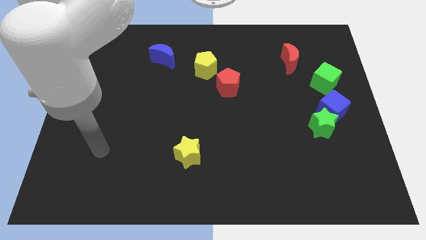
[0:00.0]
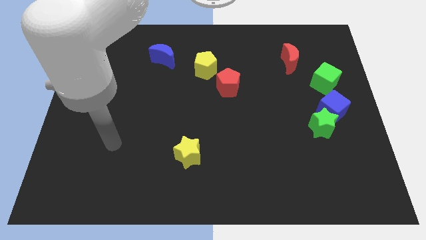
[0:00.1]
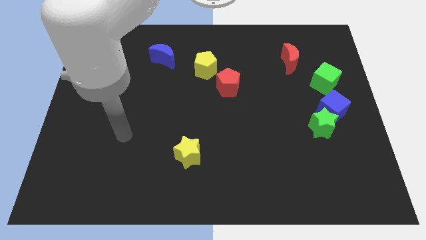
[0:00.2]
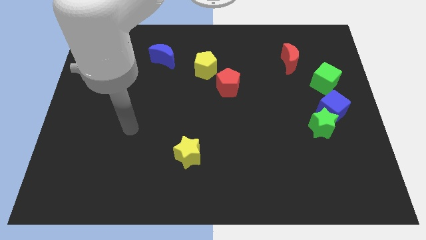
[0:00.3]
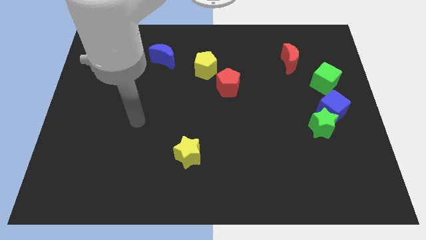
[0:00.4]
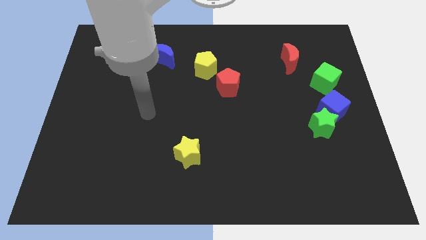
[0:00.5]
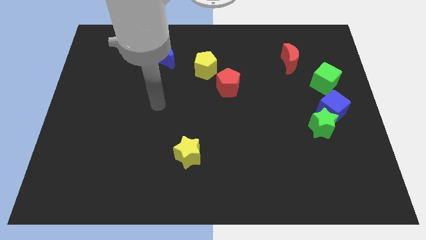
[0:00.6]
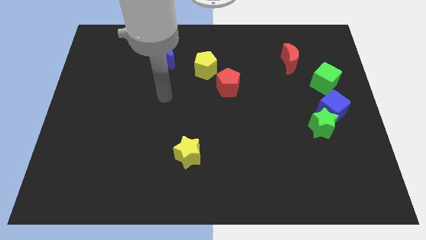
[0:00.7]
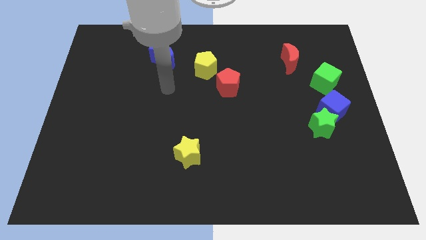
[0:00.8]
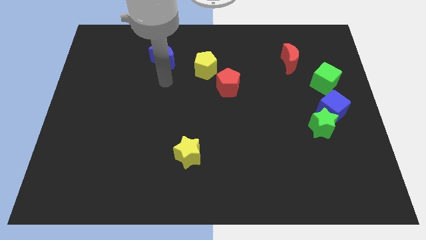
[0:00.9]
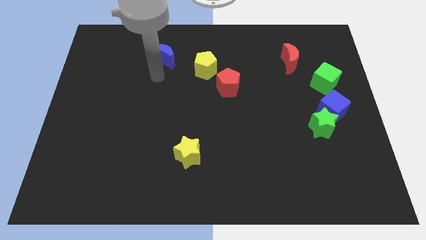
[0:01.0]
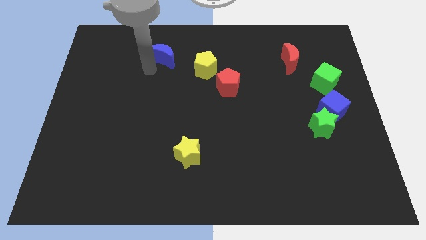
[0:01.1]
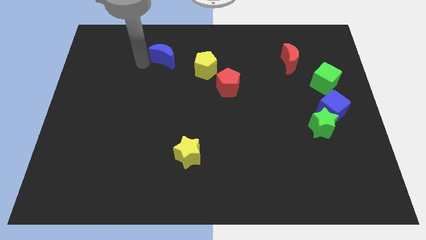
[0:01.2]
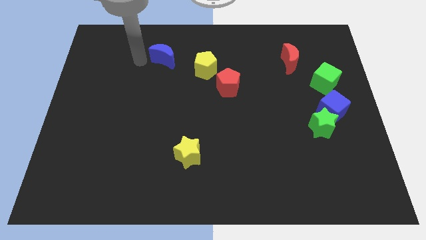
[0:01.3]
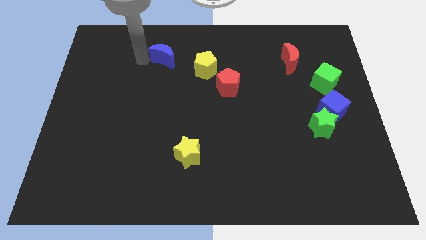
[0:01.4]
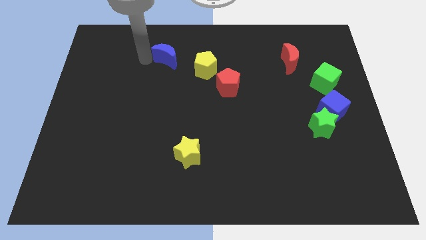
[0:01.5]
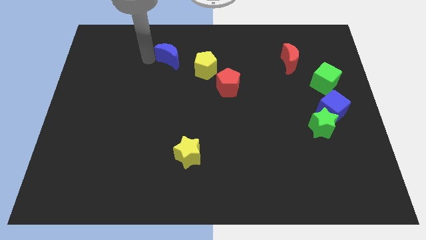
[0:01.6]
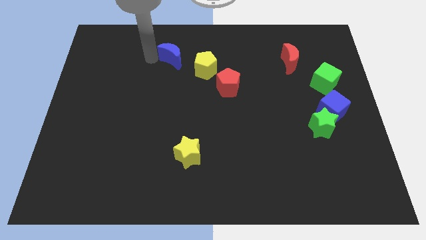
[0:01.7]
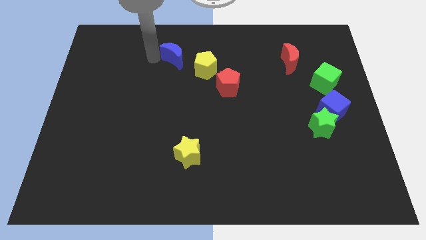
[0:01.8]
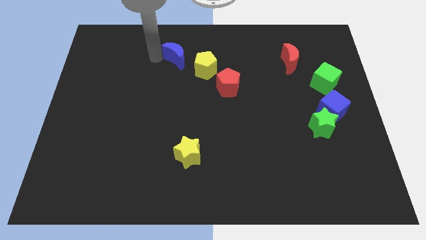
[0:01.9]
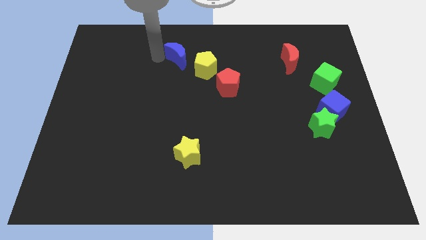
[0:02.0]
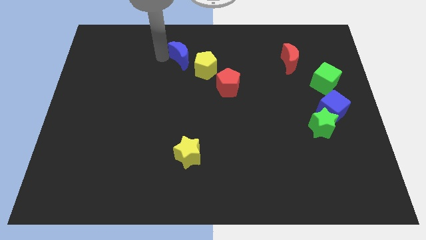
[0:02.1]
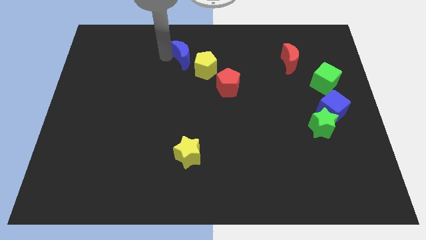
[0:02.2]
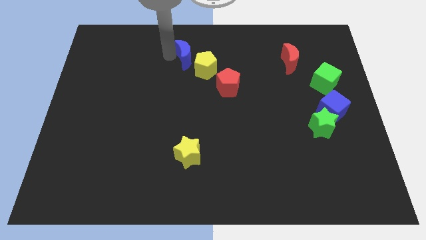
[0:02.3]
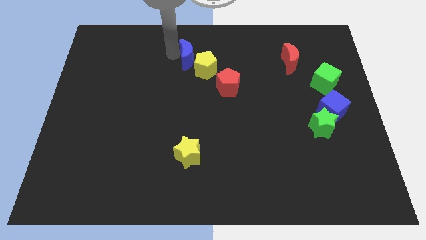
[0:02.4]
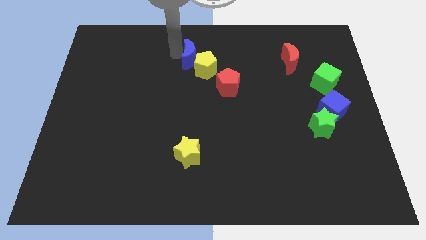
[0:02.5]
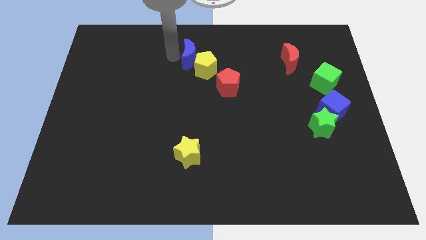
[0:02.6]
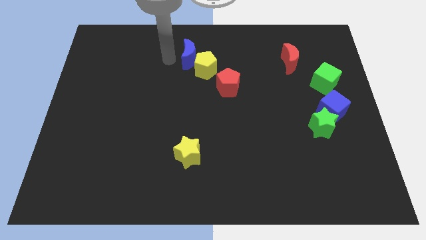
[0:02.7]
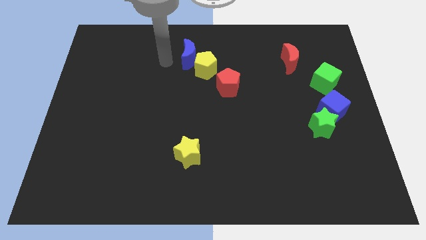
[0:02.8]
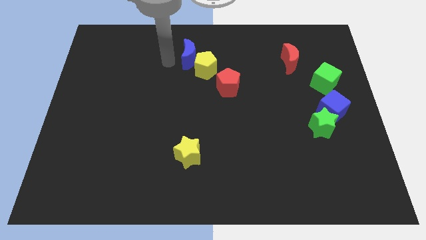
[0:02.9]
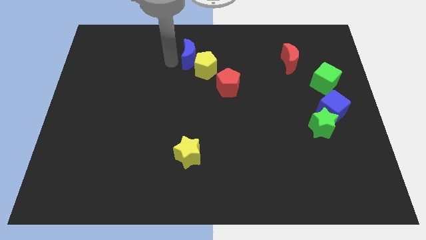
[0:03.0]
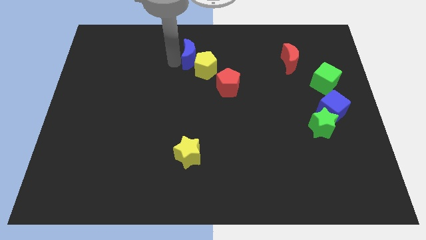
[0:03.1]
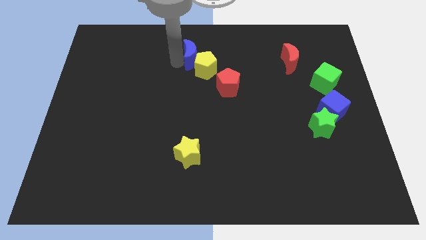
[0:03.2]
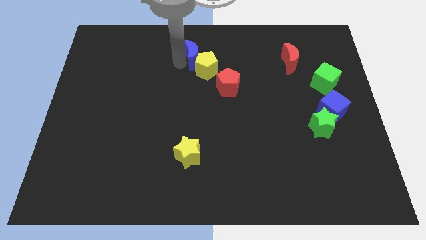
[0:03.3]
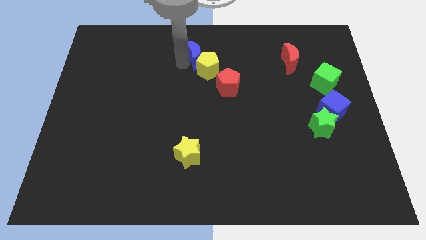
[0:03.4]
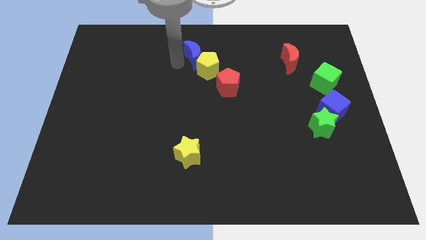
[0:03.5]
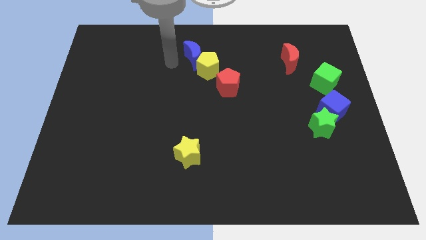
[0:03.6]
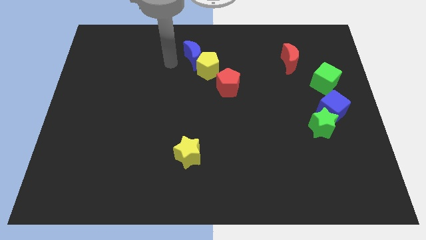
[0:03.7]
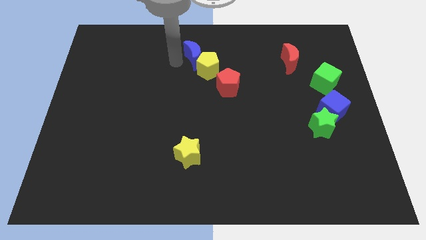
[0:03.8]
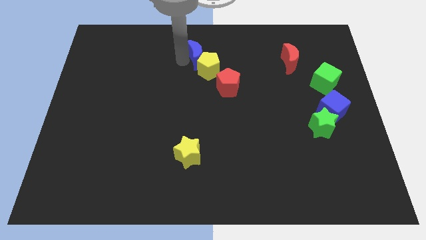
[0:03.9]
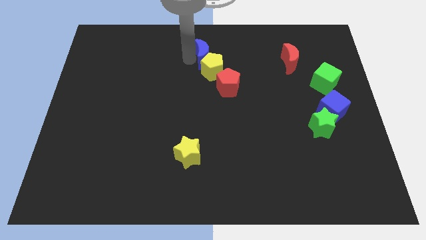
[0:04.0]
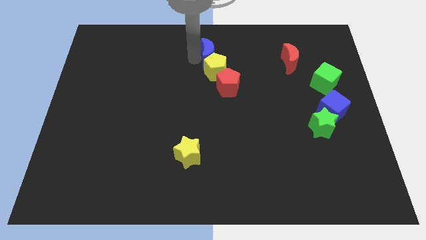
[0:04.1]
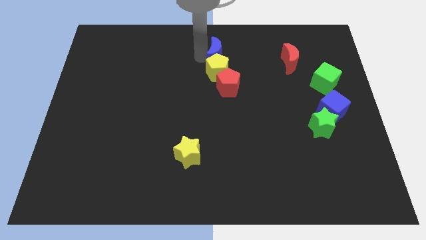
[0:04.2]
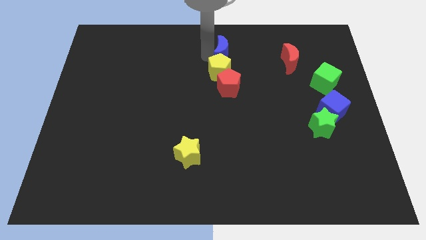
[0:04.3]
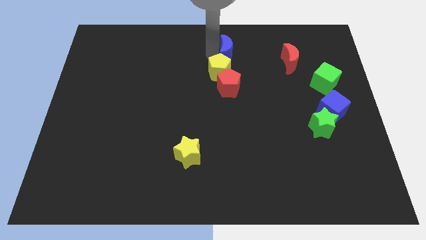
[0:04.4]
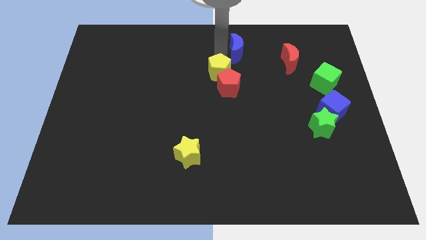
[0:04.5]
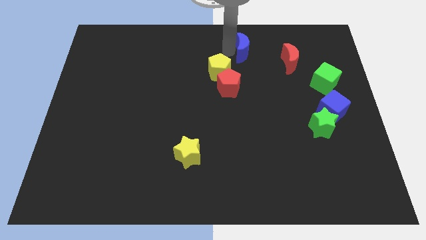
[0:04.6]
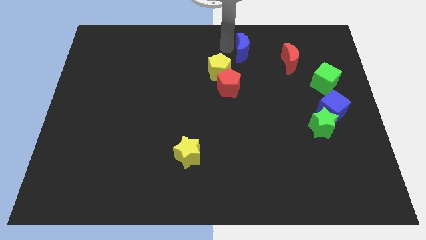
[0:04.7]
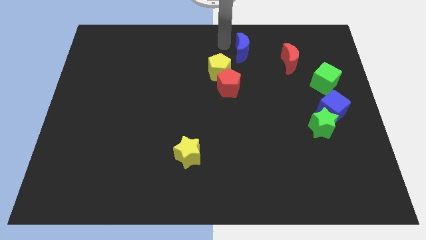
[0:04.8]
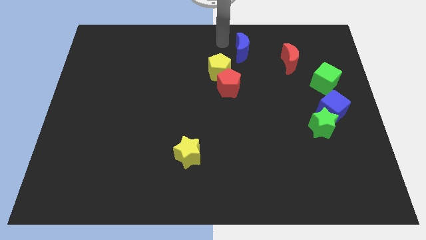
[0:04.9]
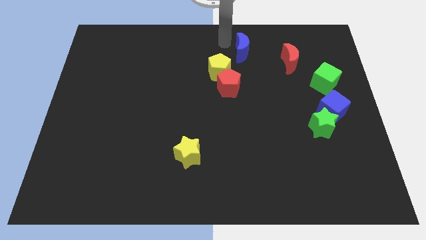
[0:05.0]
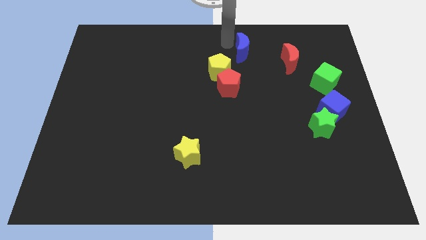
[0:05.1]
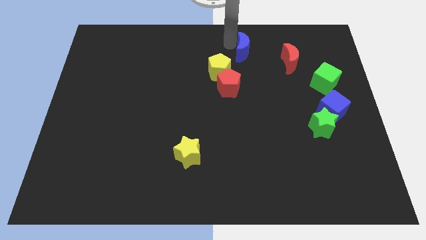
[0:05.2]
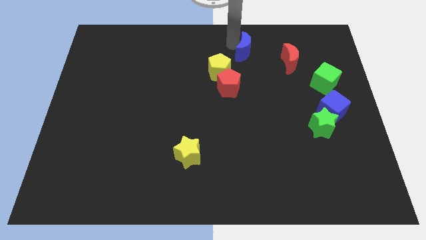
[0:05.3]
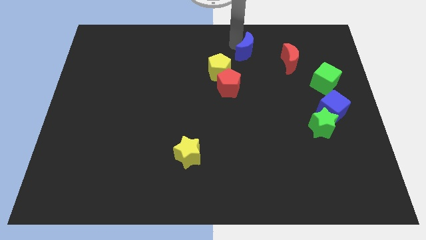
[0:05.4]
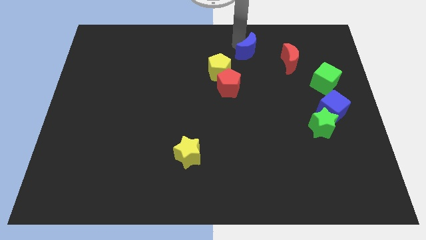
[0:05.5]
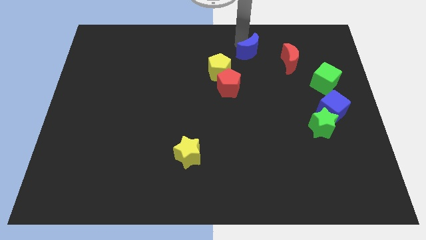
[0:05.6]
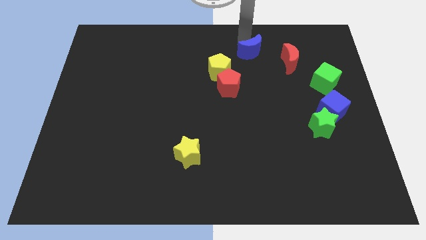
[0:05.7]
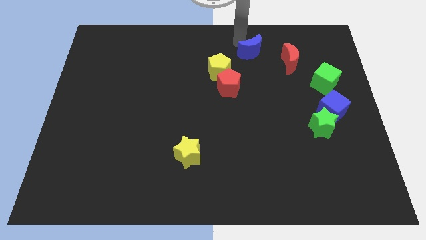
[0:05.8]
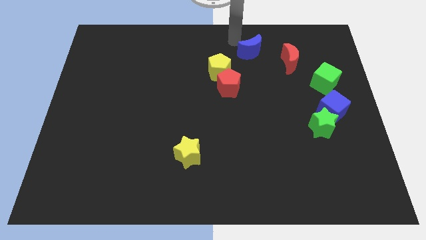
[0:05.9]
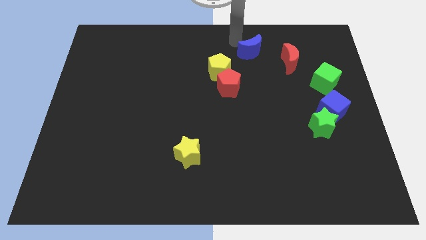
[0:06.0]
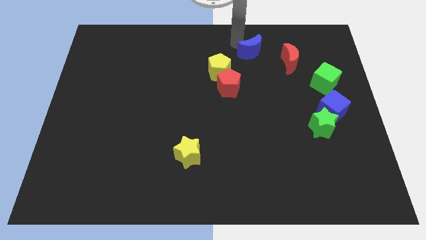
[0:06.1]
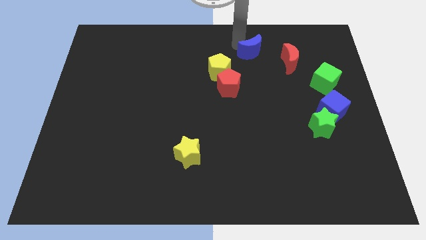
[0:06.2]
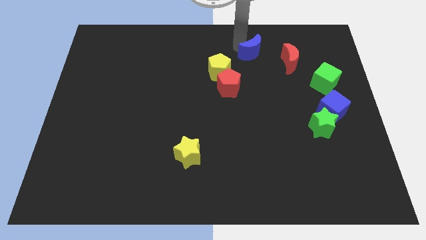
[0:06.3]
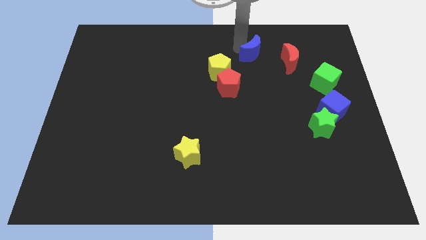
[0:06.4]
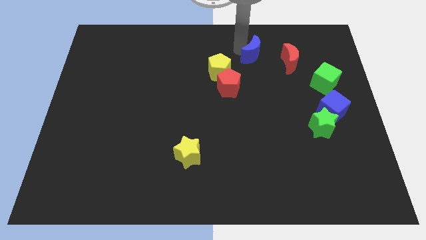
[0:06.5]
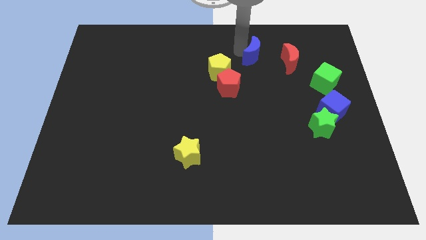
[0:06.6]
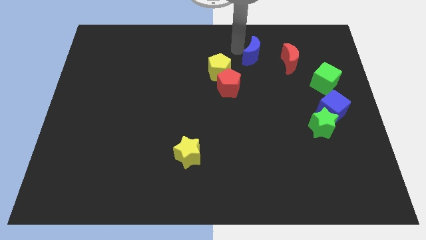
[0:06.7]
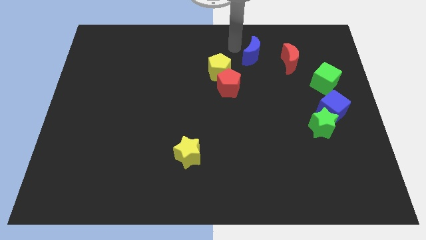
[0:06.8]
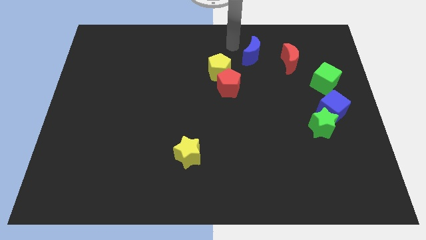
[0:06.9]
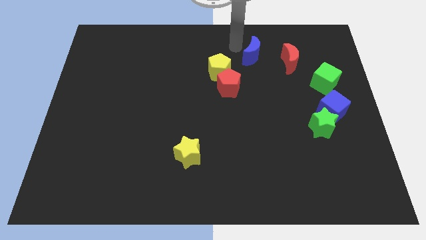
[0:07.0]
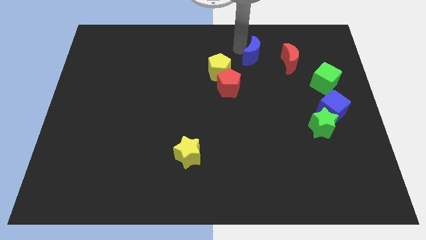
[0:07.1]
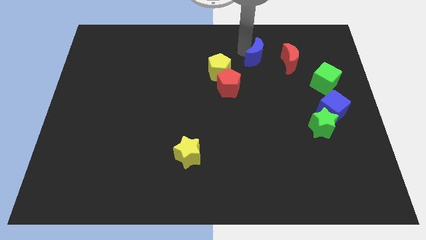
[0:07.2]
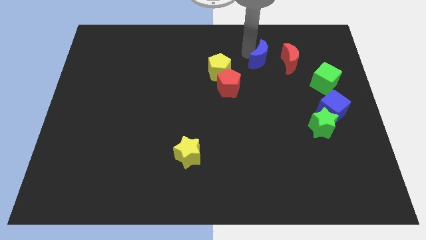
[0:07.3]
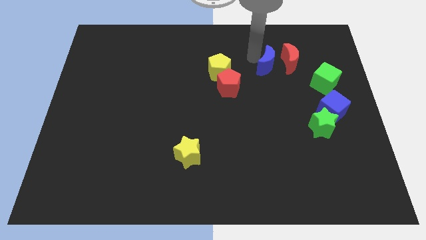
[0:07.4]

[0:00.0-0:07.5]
put the blue moon next to the red moon
